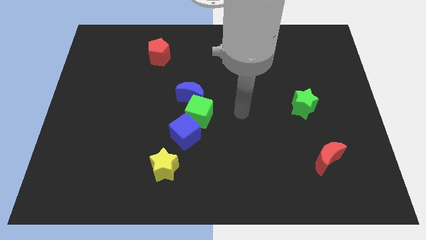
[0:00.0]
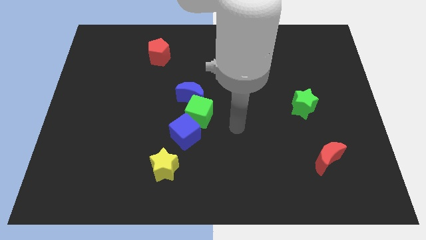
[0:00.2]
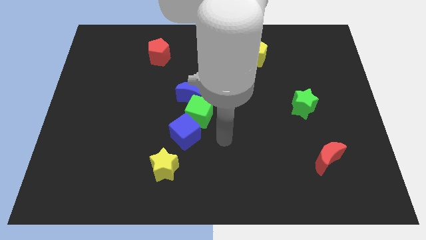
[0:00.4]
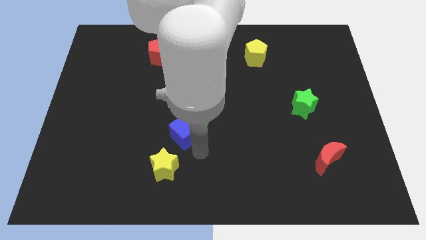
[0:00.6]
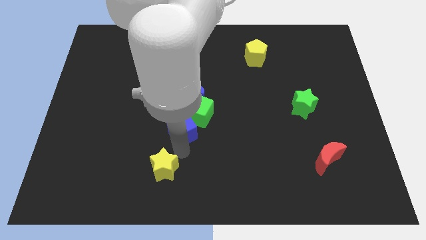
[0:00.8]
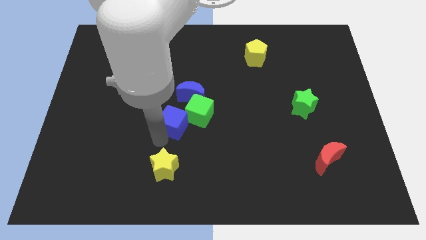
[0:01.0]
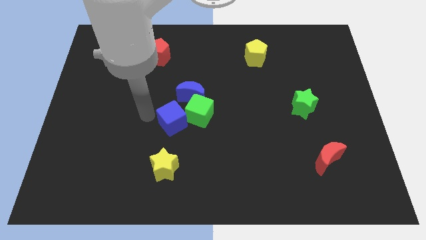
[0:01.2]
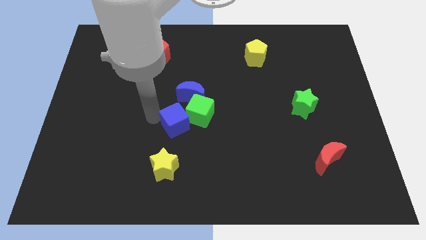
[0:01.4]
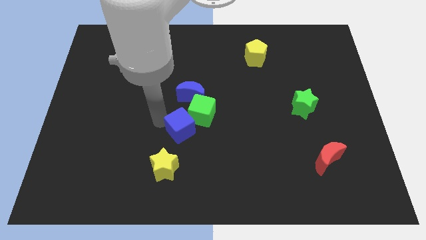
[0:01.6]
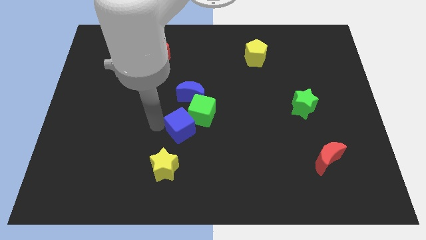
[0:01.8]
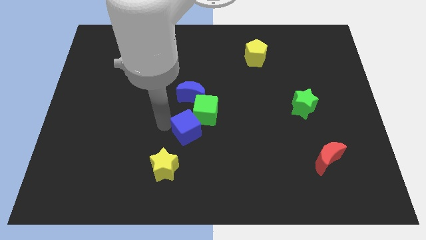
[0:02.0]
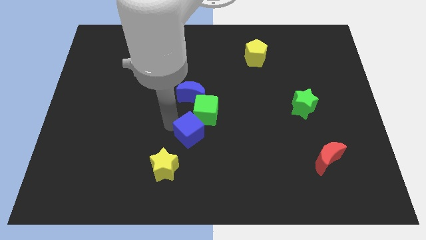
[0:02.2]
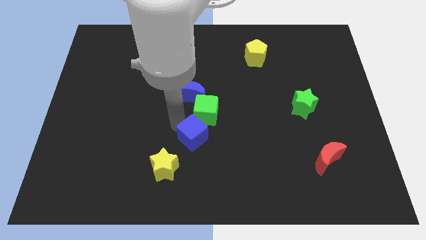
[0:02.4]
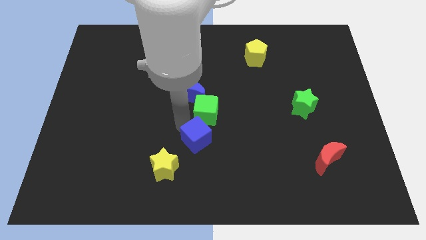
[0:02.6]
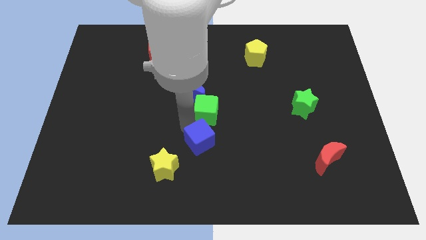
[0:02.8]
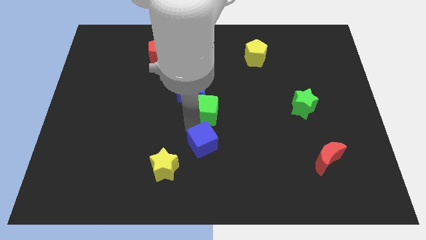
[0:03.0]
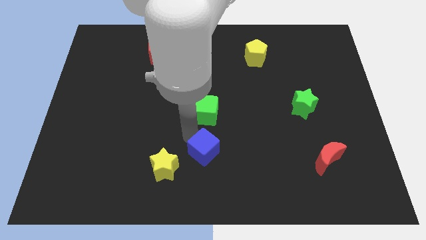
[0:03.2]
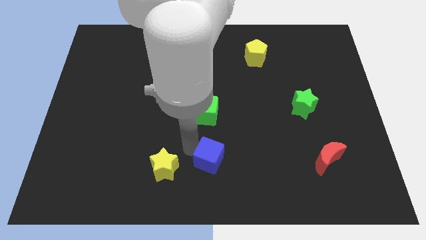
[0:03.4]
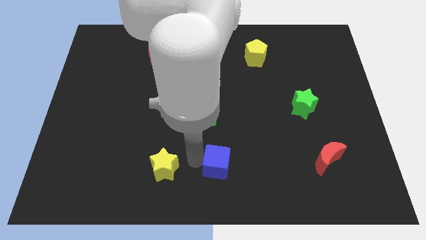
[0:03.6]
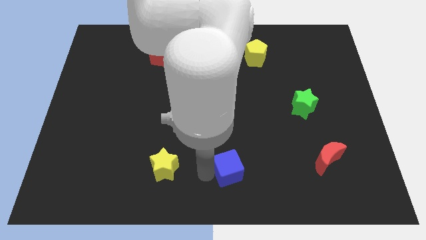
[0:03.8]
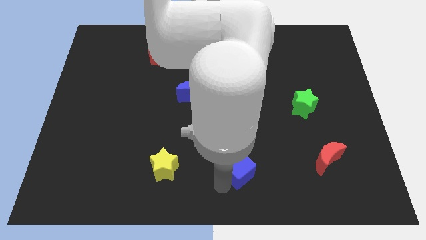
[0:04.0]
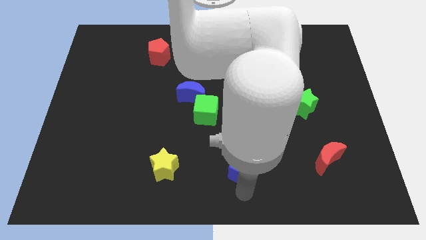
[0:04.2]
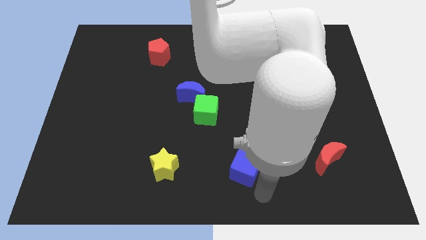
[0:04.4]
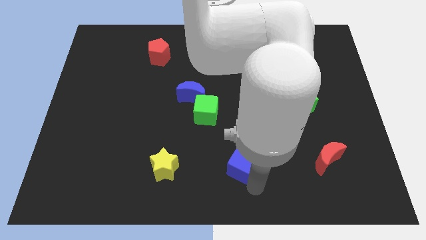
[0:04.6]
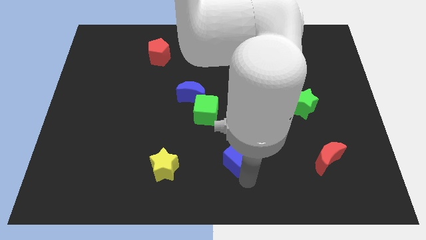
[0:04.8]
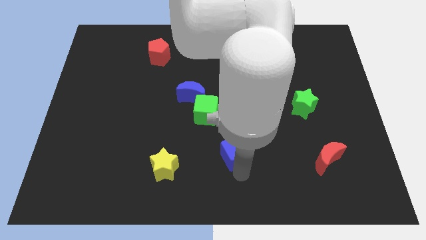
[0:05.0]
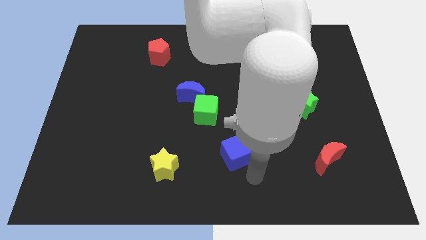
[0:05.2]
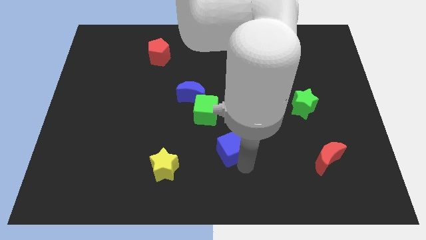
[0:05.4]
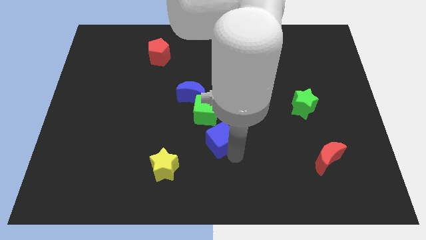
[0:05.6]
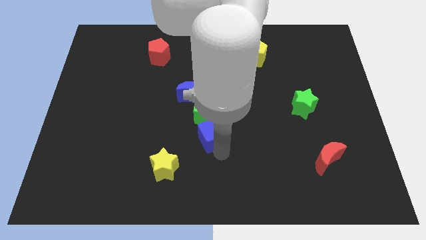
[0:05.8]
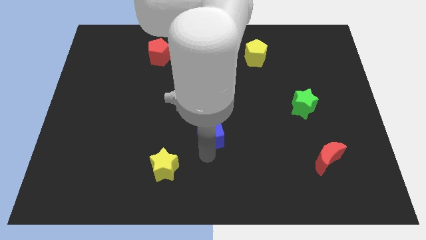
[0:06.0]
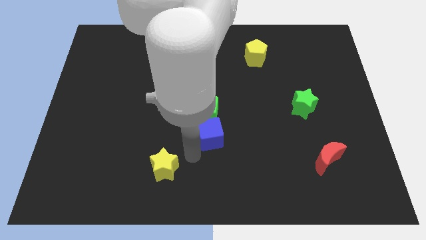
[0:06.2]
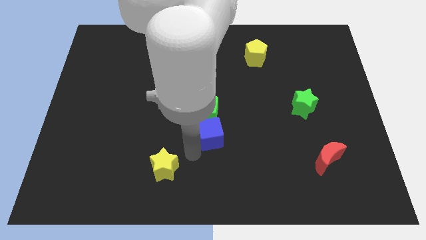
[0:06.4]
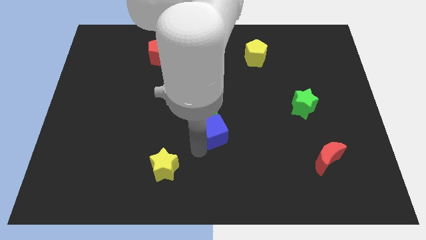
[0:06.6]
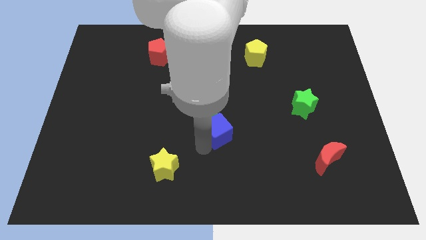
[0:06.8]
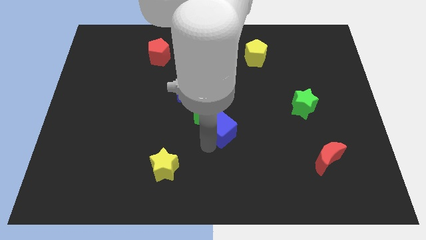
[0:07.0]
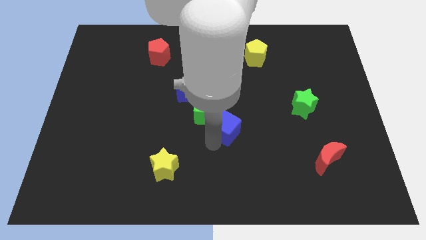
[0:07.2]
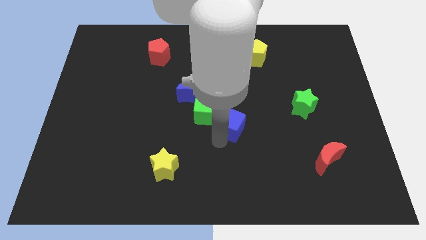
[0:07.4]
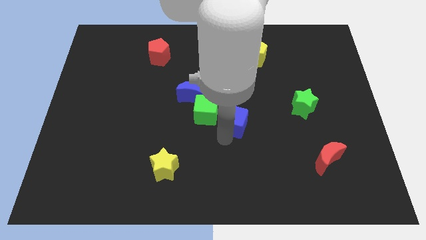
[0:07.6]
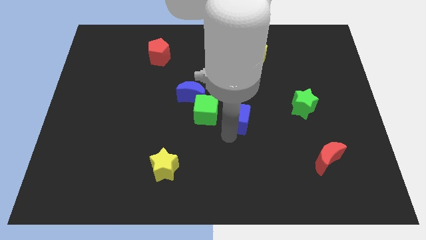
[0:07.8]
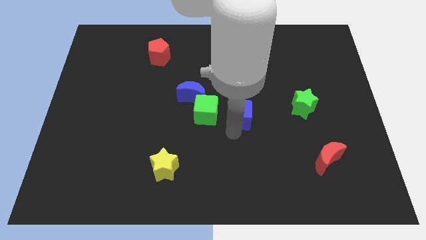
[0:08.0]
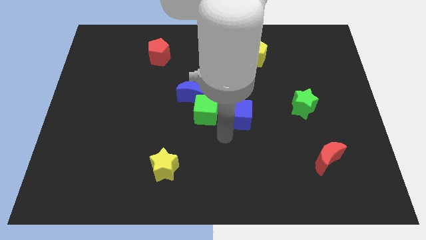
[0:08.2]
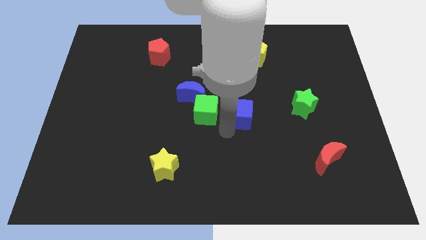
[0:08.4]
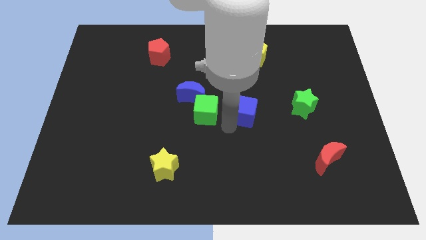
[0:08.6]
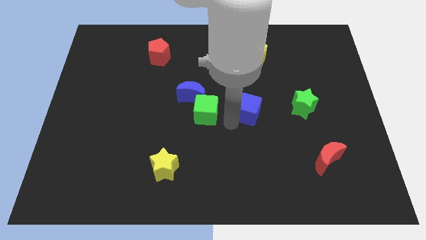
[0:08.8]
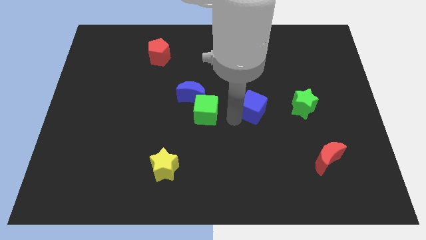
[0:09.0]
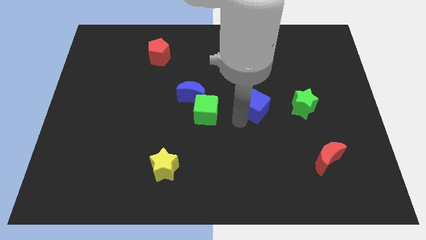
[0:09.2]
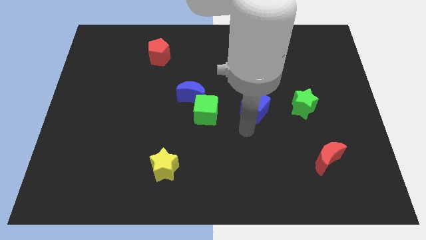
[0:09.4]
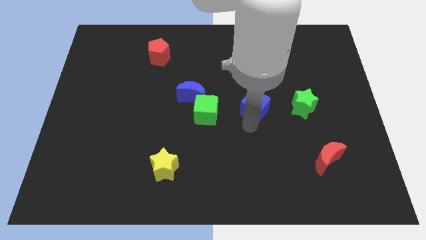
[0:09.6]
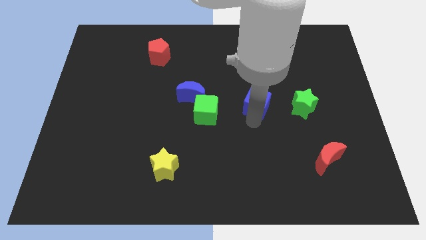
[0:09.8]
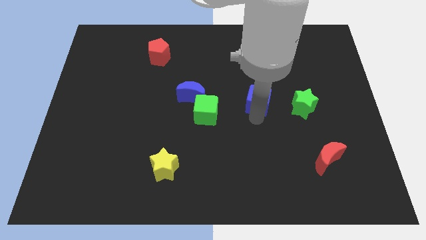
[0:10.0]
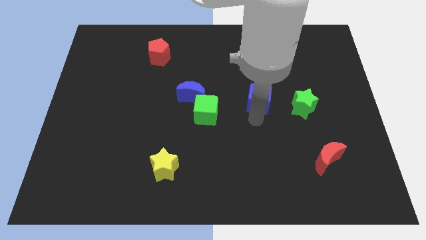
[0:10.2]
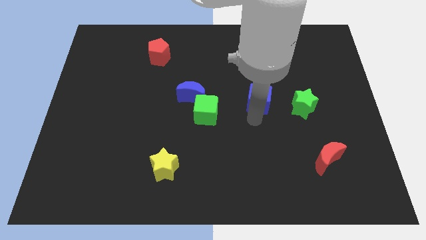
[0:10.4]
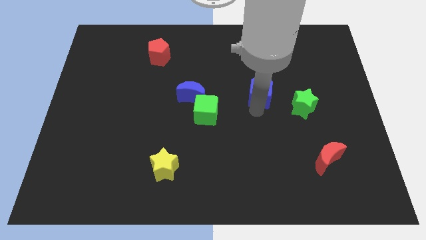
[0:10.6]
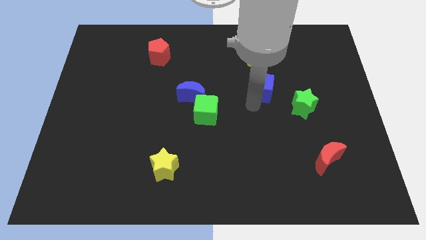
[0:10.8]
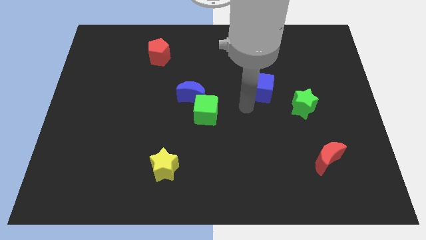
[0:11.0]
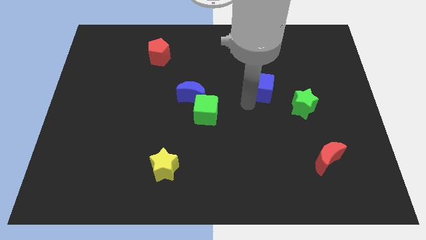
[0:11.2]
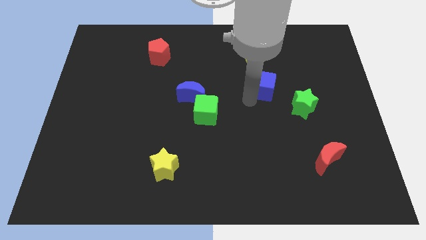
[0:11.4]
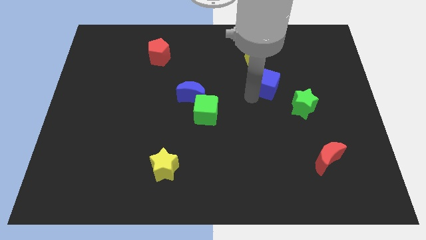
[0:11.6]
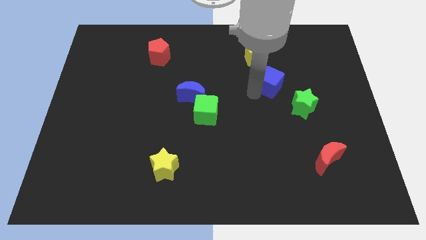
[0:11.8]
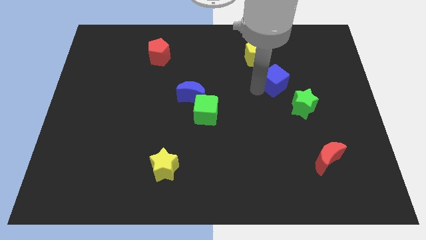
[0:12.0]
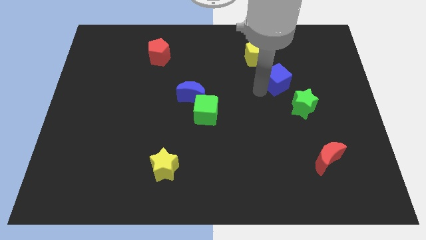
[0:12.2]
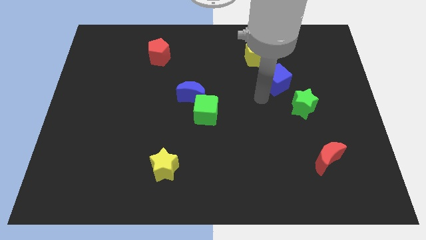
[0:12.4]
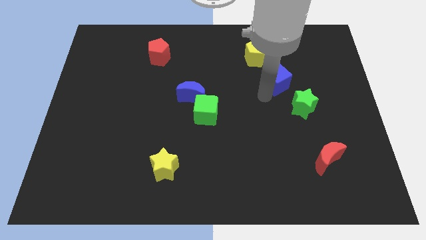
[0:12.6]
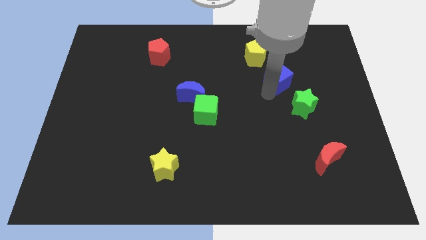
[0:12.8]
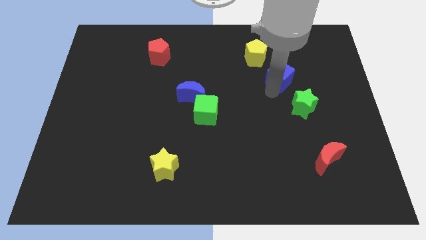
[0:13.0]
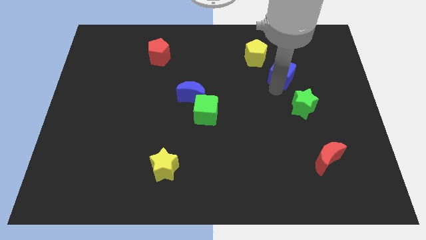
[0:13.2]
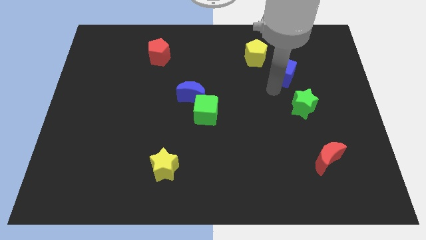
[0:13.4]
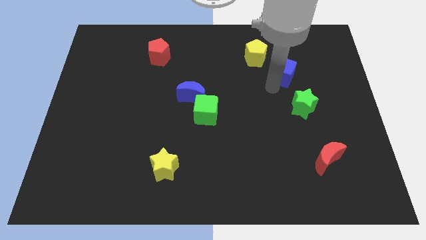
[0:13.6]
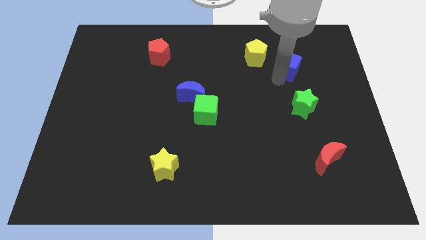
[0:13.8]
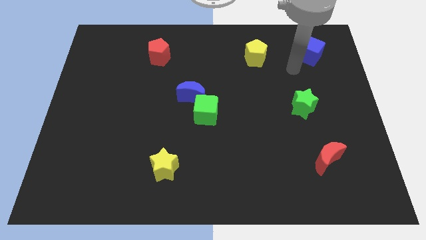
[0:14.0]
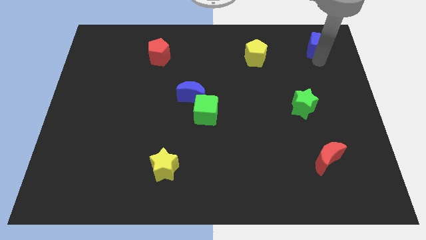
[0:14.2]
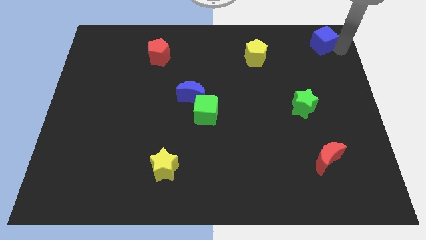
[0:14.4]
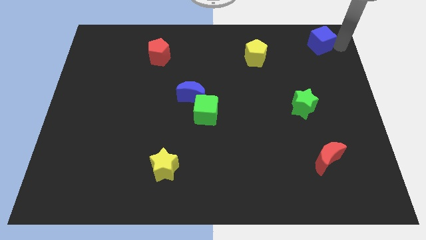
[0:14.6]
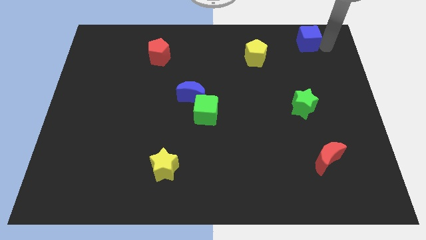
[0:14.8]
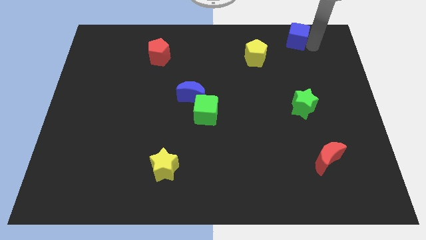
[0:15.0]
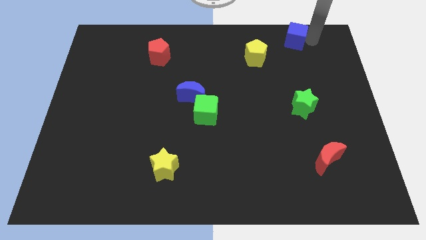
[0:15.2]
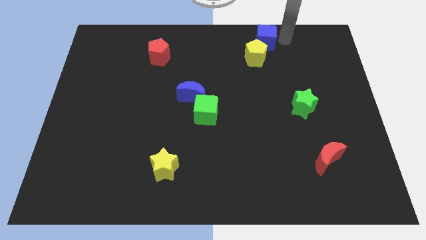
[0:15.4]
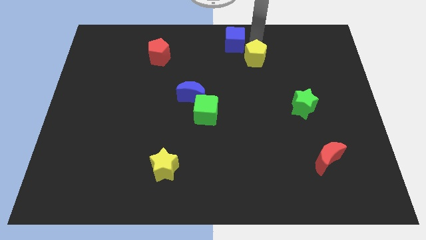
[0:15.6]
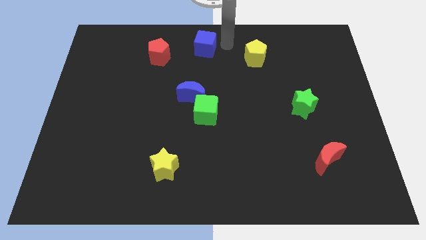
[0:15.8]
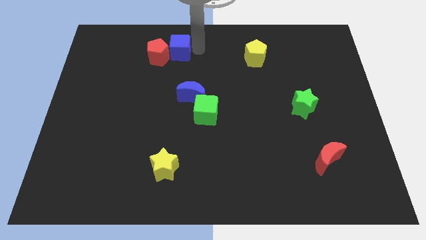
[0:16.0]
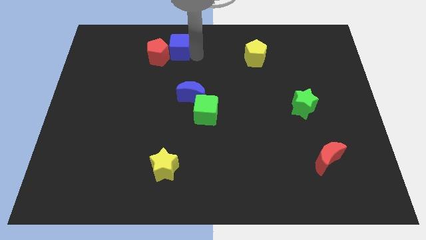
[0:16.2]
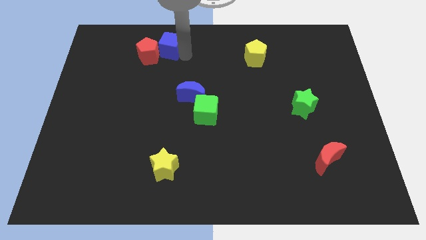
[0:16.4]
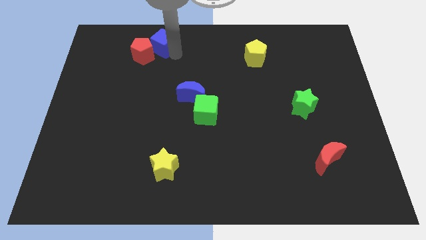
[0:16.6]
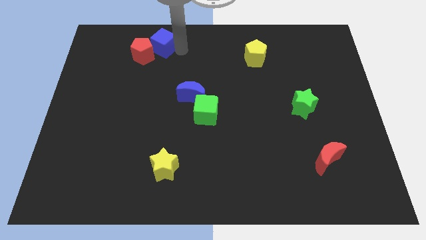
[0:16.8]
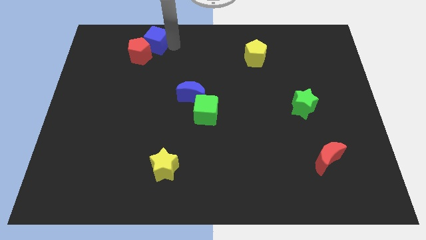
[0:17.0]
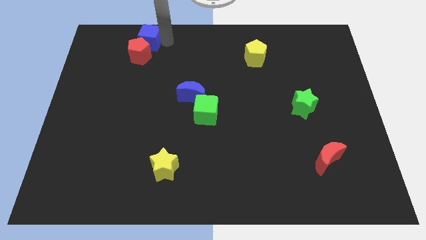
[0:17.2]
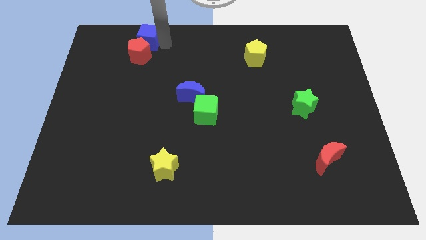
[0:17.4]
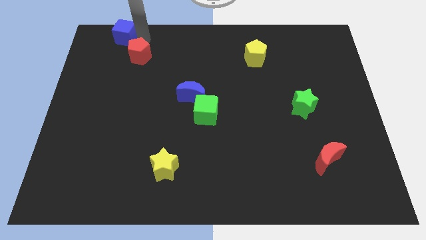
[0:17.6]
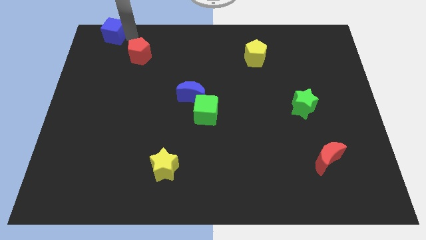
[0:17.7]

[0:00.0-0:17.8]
slide the blue cube to the upper left corner
